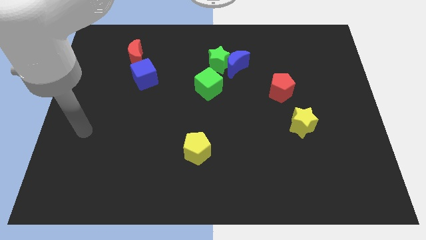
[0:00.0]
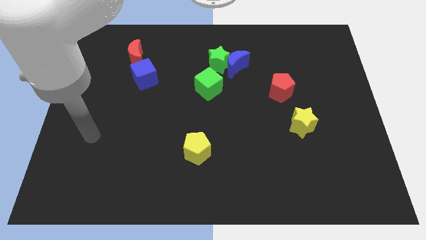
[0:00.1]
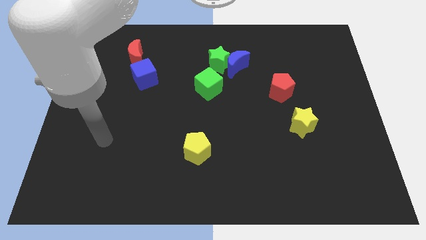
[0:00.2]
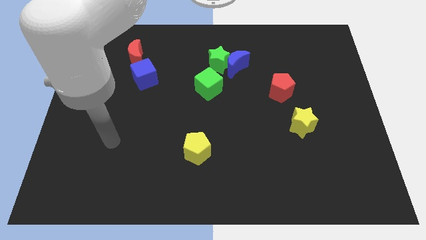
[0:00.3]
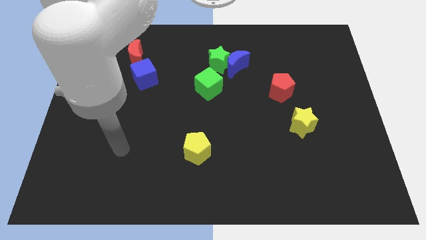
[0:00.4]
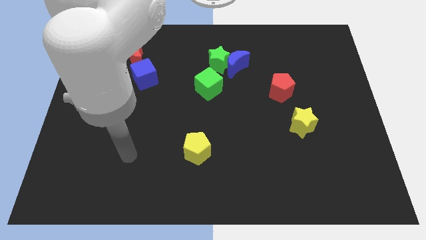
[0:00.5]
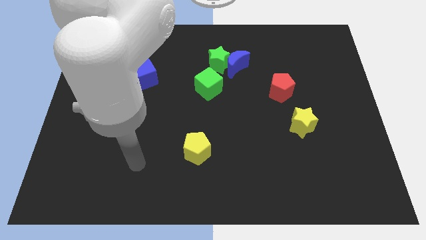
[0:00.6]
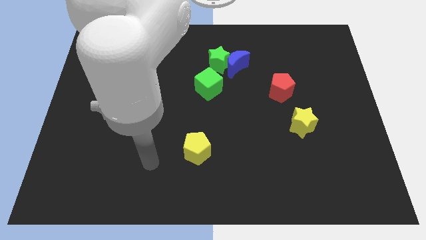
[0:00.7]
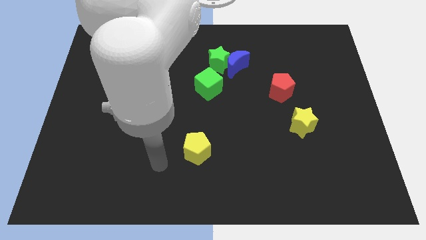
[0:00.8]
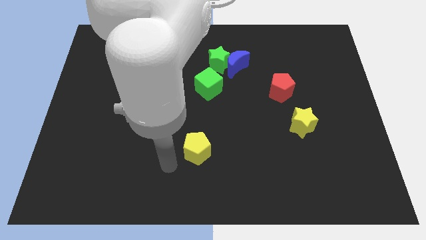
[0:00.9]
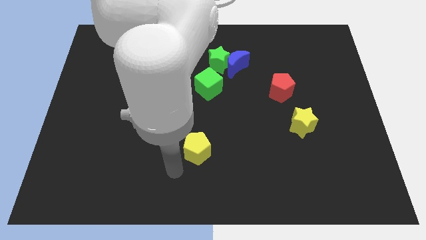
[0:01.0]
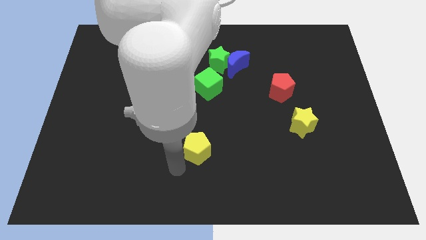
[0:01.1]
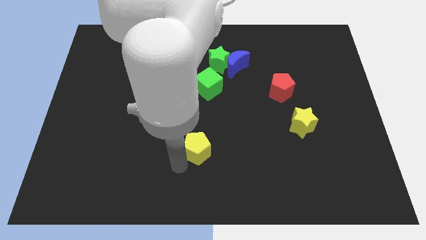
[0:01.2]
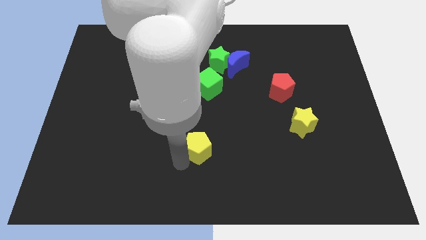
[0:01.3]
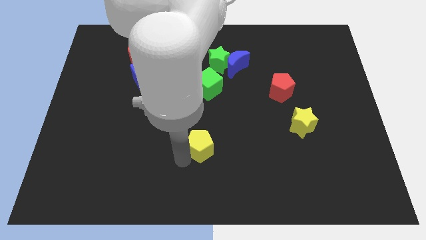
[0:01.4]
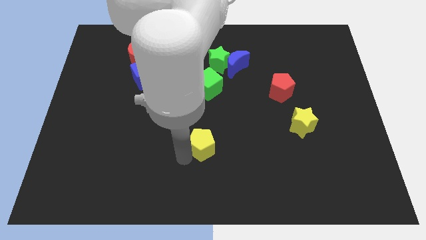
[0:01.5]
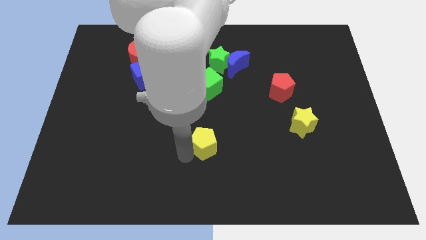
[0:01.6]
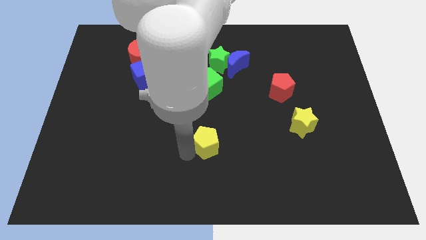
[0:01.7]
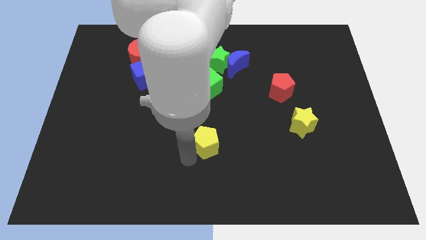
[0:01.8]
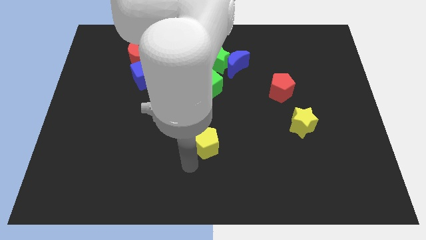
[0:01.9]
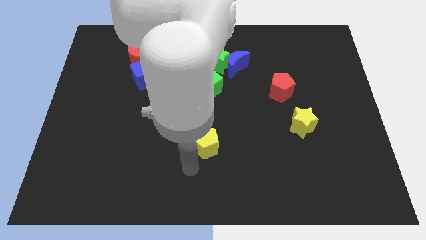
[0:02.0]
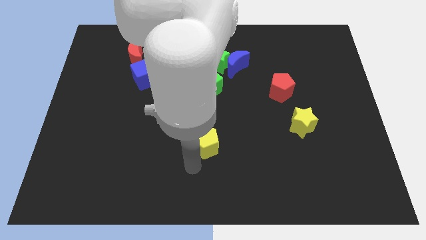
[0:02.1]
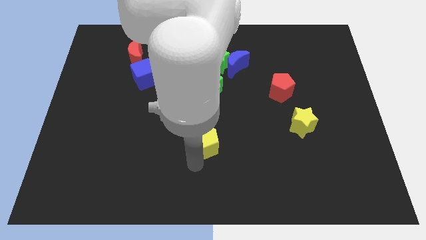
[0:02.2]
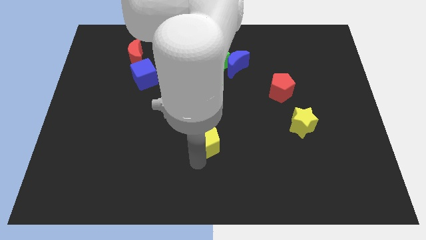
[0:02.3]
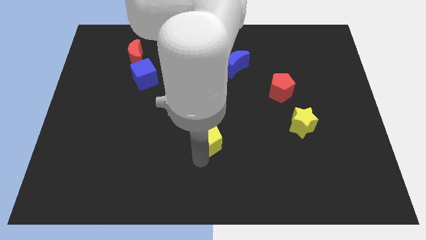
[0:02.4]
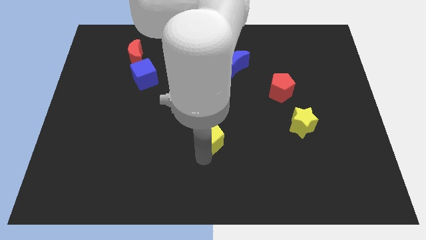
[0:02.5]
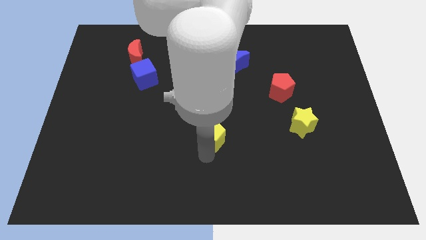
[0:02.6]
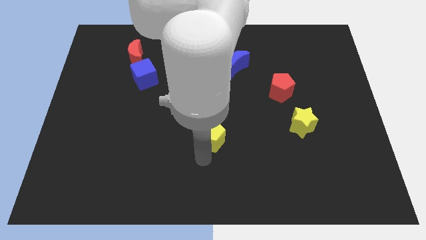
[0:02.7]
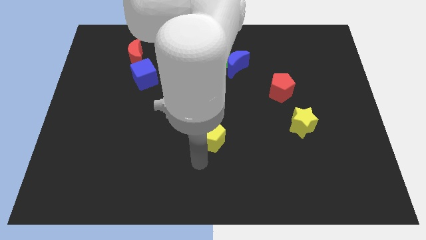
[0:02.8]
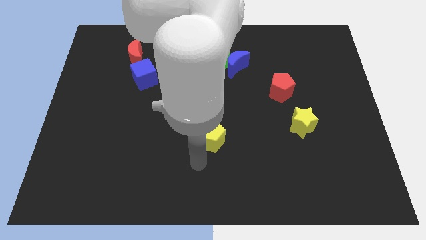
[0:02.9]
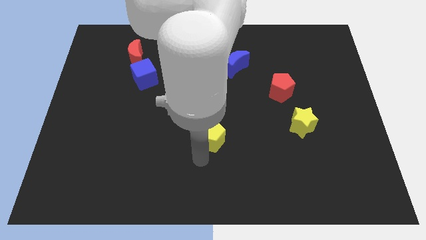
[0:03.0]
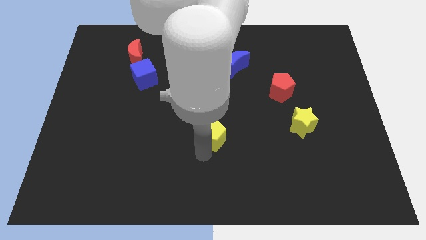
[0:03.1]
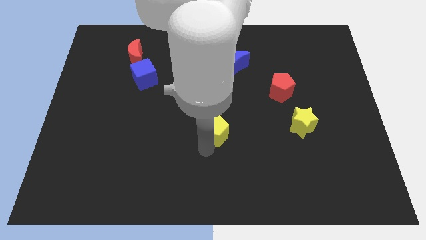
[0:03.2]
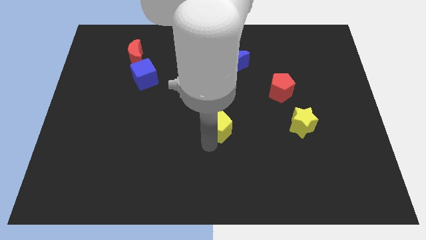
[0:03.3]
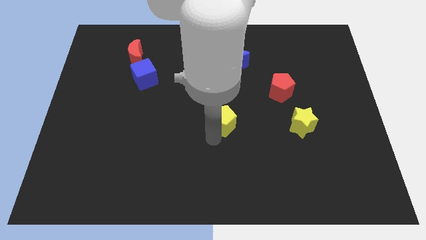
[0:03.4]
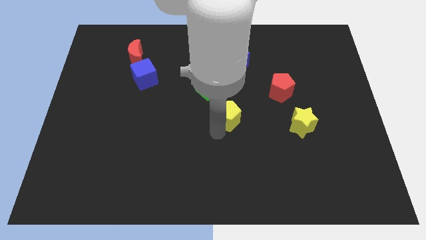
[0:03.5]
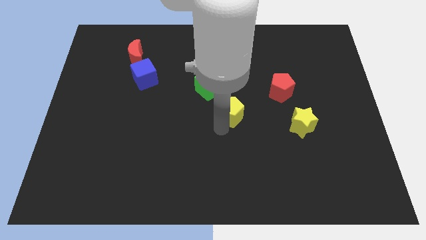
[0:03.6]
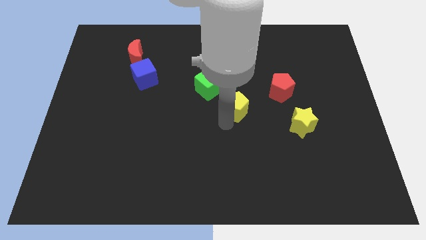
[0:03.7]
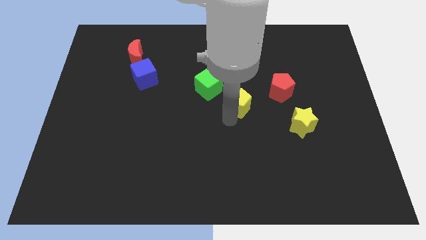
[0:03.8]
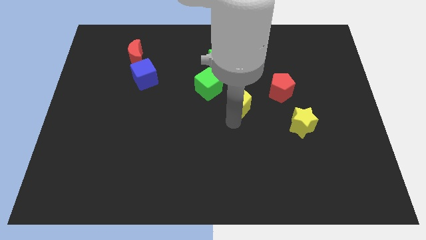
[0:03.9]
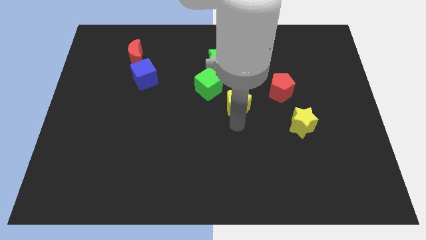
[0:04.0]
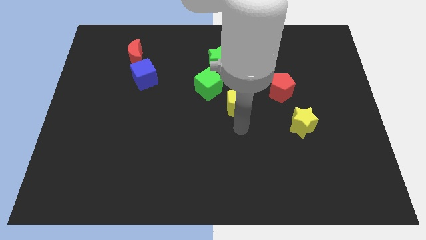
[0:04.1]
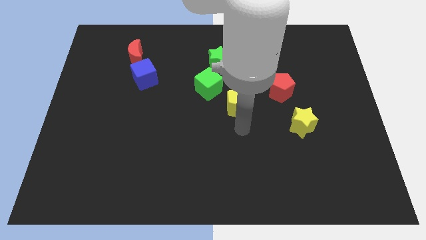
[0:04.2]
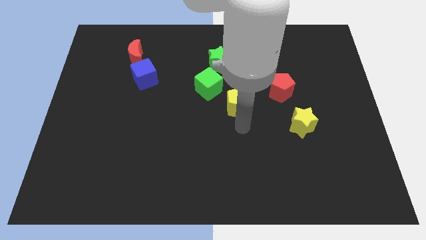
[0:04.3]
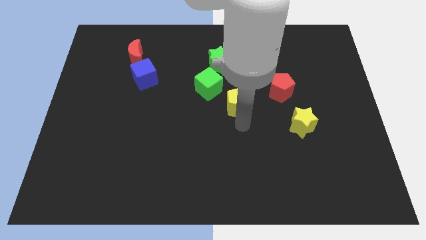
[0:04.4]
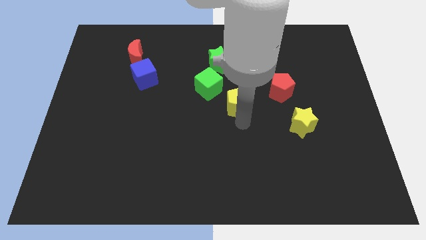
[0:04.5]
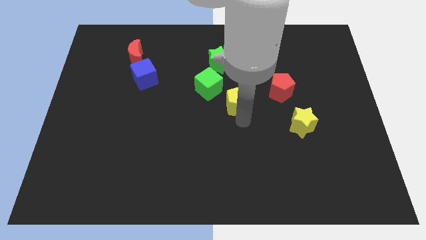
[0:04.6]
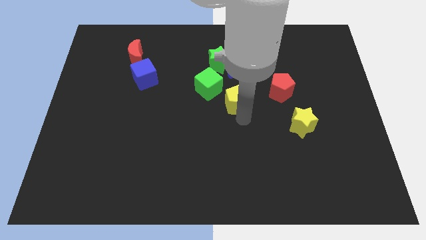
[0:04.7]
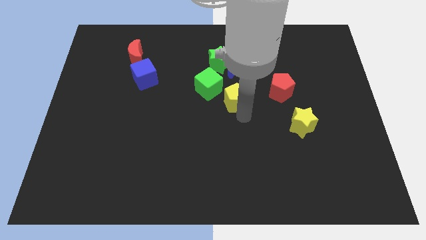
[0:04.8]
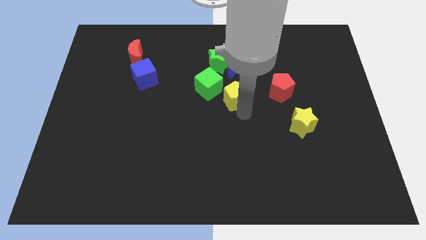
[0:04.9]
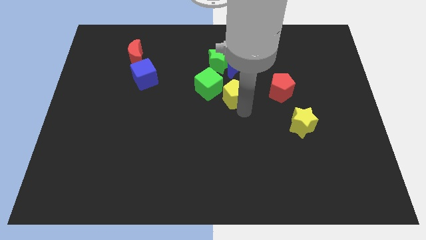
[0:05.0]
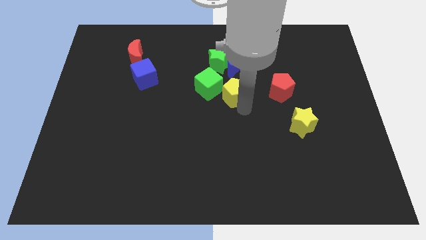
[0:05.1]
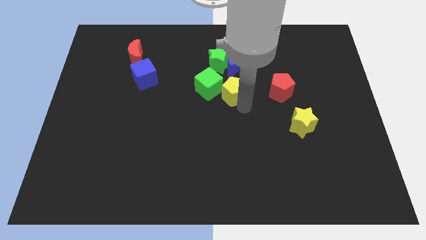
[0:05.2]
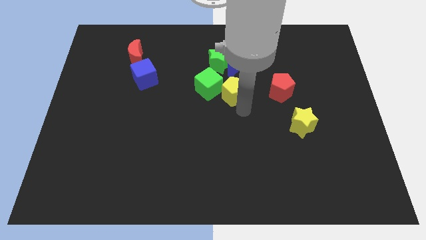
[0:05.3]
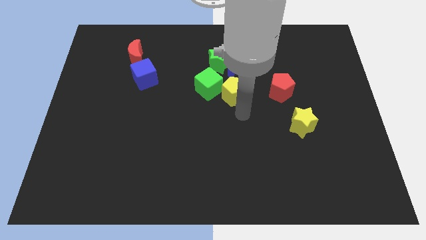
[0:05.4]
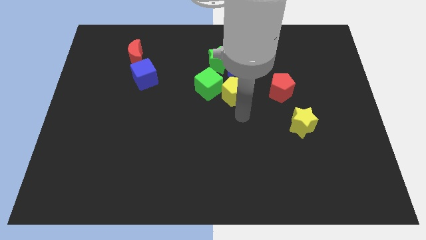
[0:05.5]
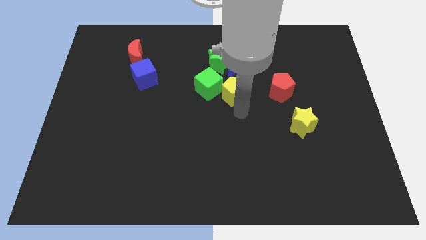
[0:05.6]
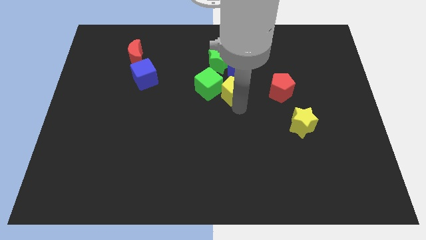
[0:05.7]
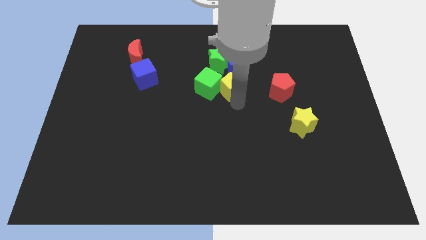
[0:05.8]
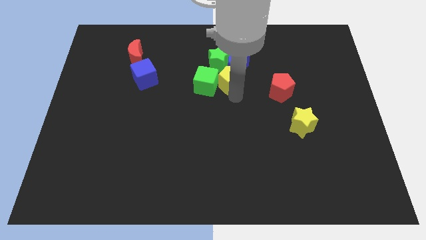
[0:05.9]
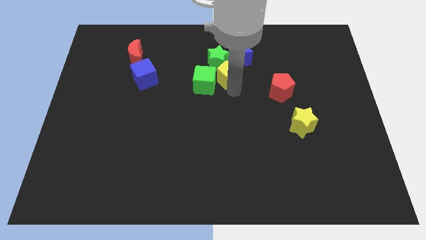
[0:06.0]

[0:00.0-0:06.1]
move the yellow pentagon next to the green star

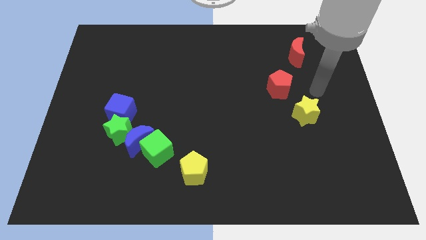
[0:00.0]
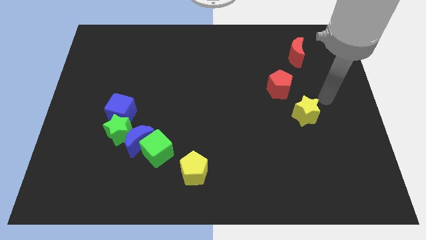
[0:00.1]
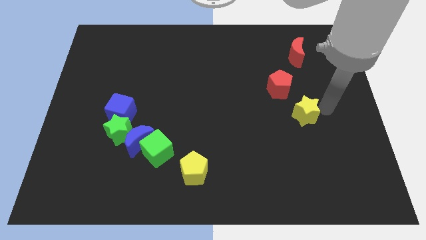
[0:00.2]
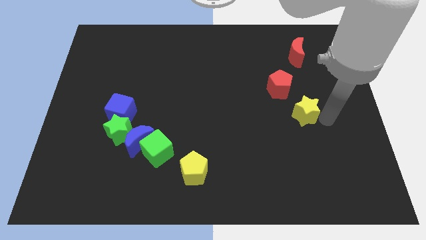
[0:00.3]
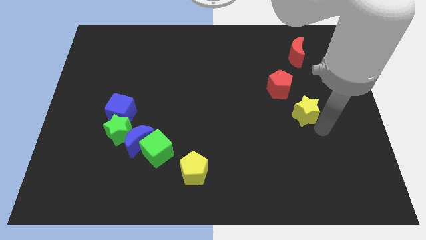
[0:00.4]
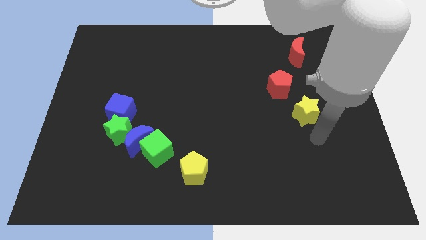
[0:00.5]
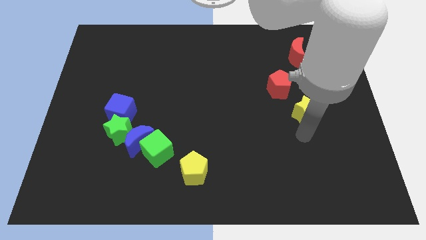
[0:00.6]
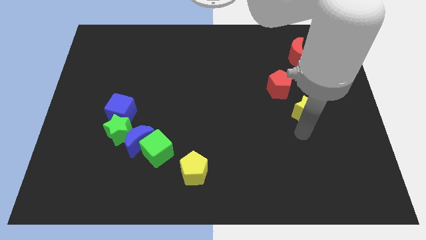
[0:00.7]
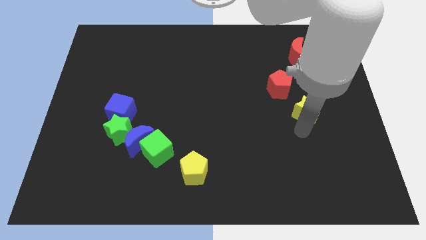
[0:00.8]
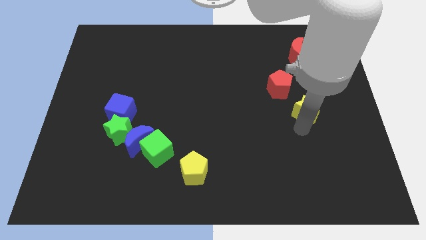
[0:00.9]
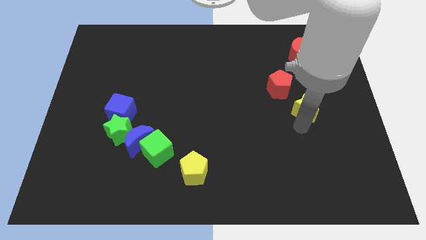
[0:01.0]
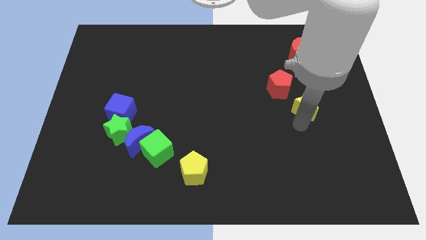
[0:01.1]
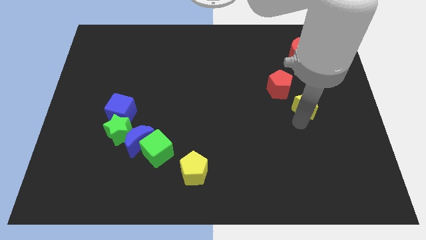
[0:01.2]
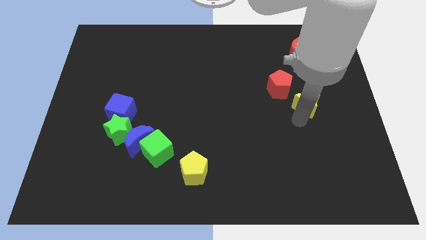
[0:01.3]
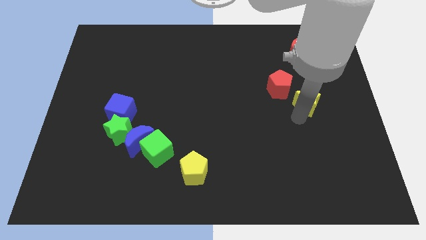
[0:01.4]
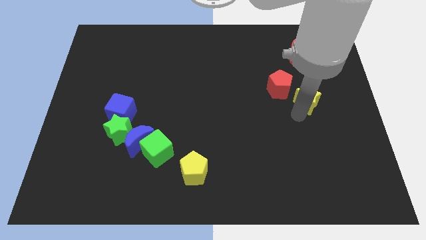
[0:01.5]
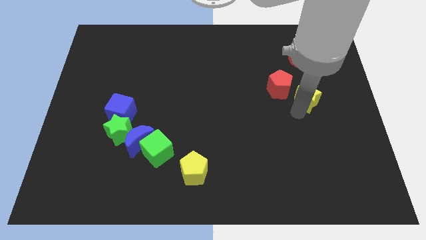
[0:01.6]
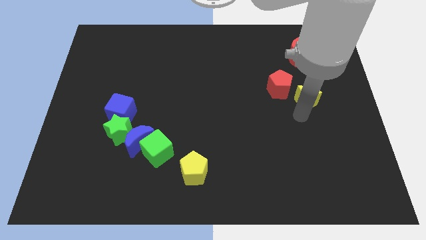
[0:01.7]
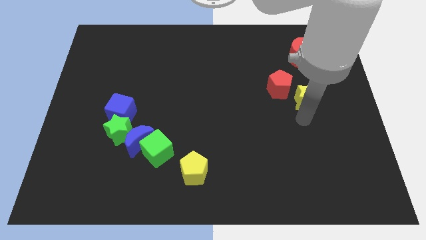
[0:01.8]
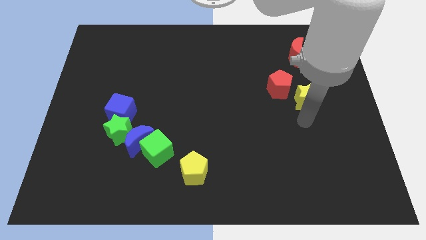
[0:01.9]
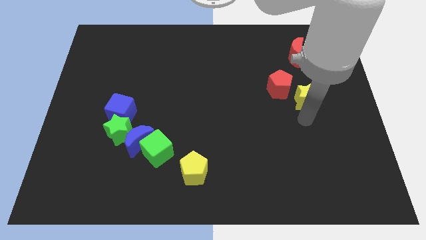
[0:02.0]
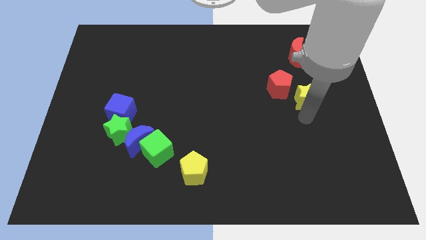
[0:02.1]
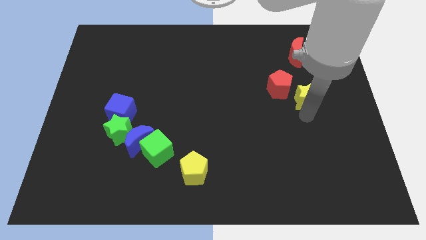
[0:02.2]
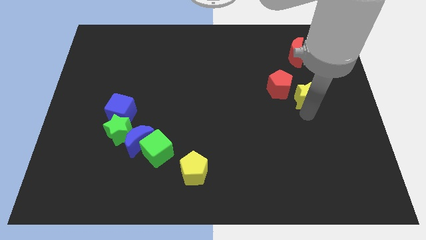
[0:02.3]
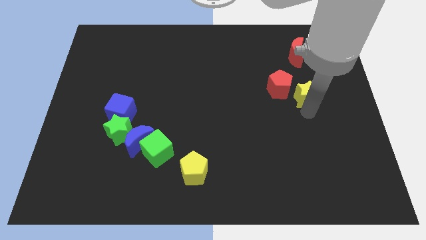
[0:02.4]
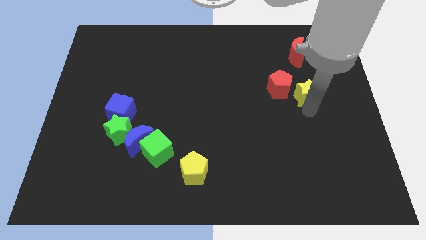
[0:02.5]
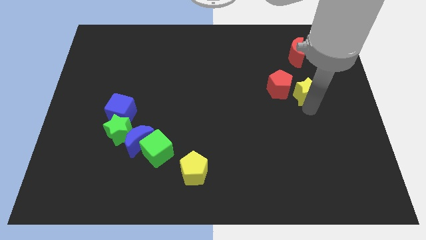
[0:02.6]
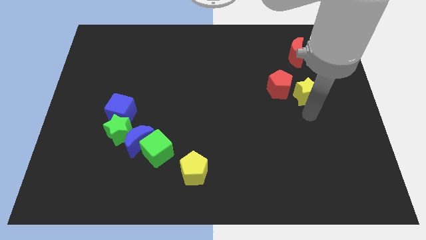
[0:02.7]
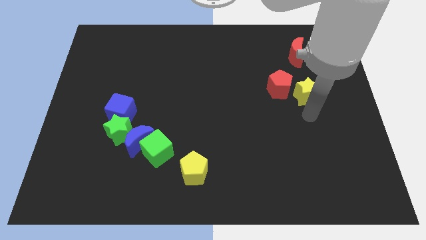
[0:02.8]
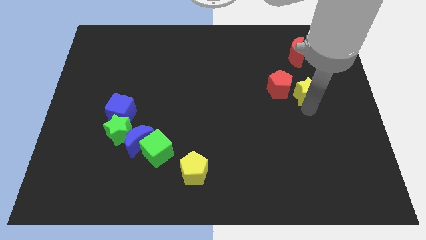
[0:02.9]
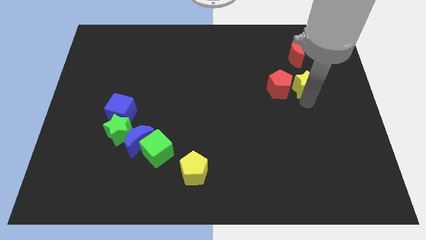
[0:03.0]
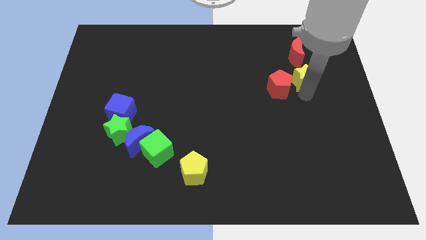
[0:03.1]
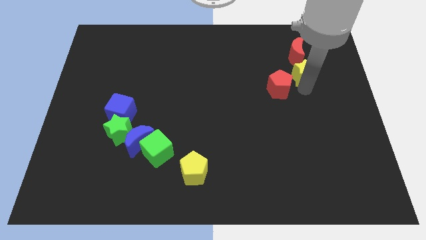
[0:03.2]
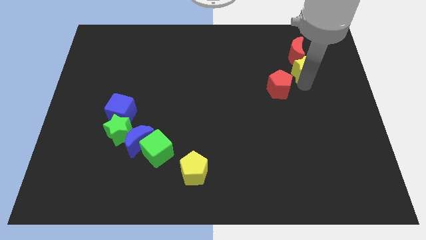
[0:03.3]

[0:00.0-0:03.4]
slide the yellow star towards the red moon
